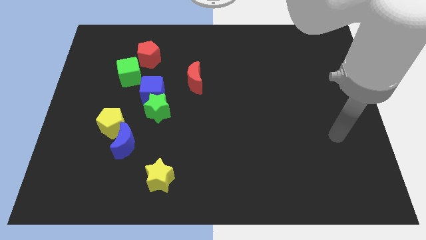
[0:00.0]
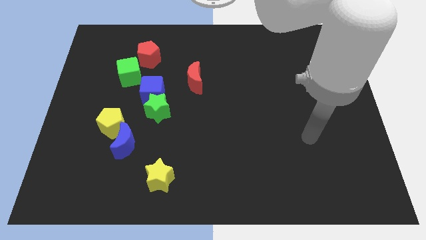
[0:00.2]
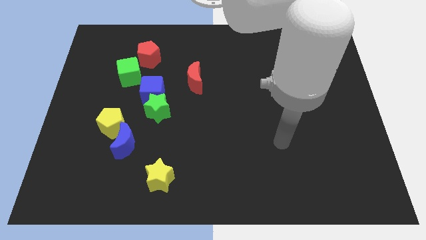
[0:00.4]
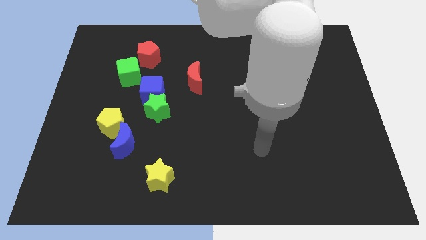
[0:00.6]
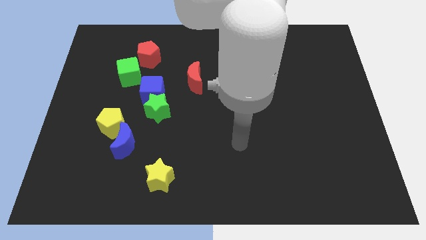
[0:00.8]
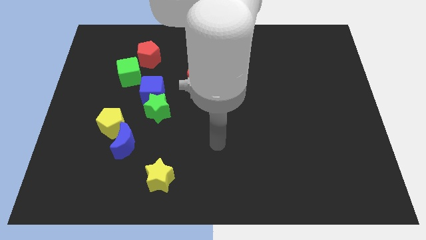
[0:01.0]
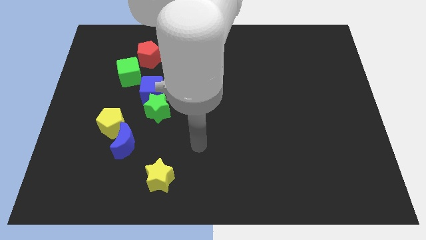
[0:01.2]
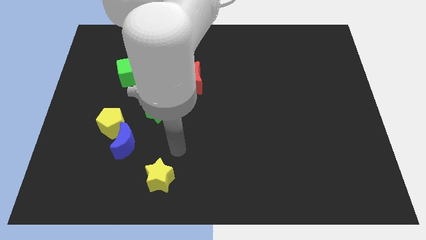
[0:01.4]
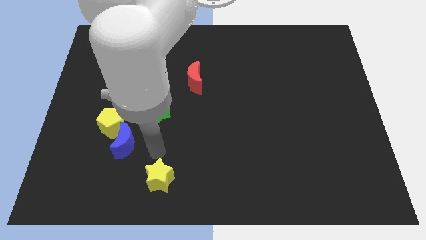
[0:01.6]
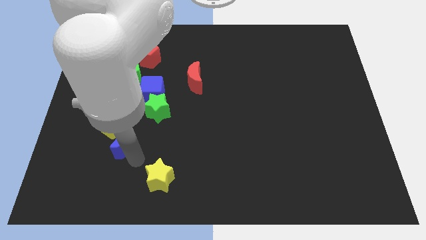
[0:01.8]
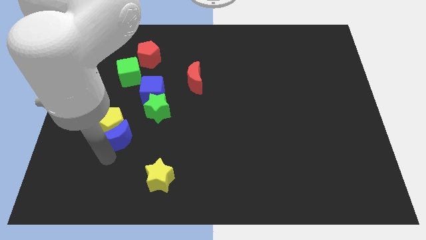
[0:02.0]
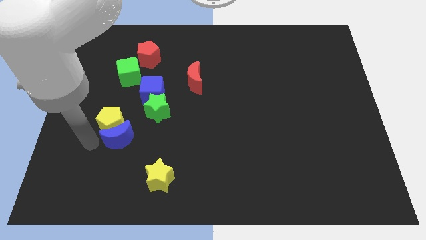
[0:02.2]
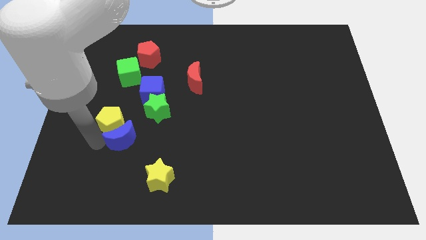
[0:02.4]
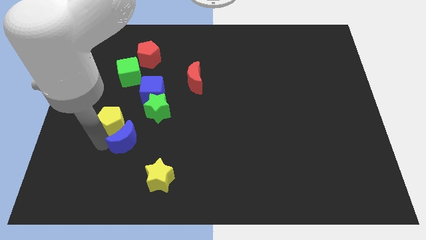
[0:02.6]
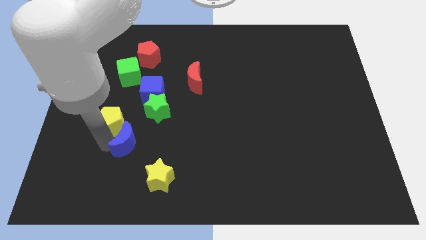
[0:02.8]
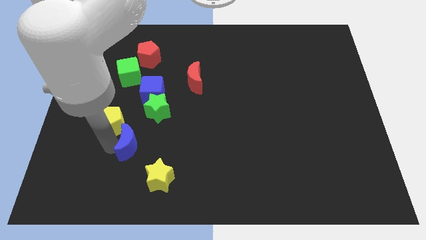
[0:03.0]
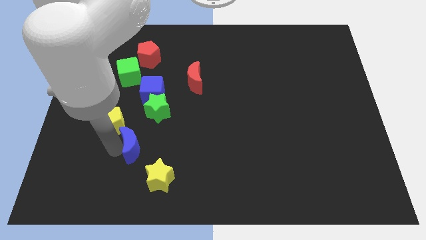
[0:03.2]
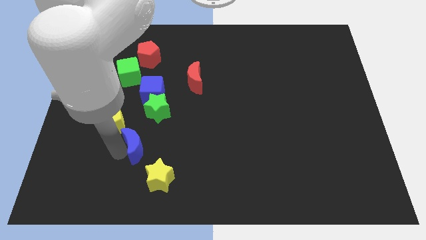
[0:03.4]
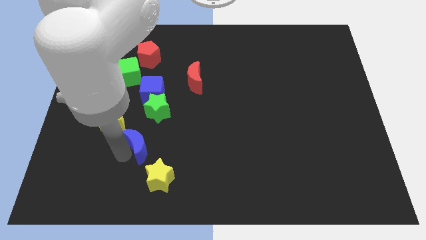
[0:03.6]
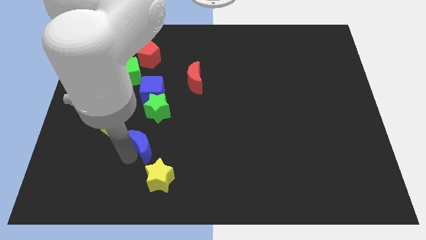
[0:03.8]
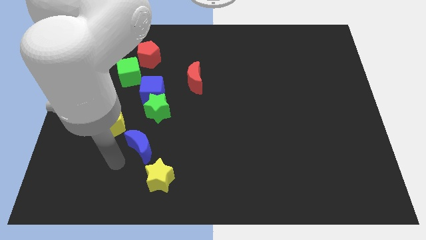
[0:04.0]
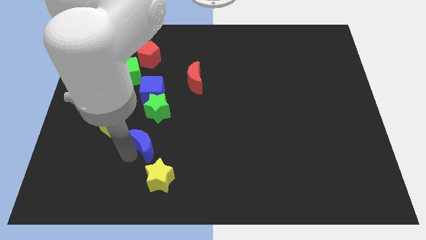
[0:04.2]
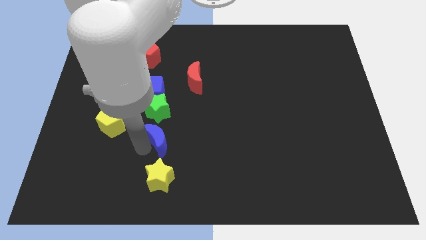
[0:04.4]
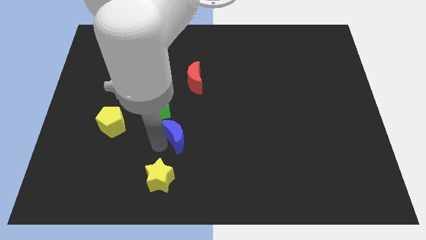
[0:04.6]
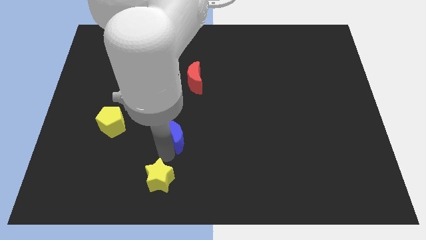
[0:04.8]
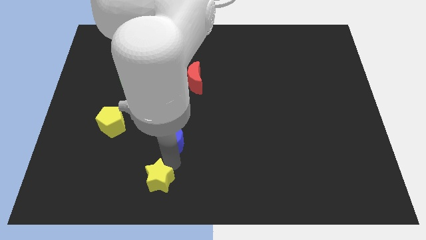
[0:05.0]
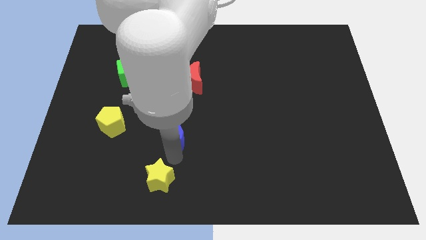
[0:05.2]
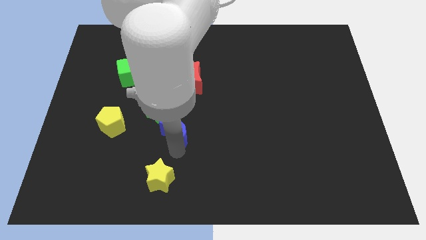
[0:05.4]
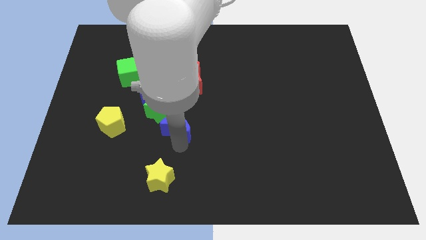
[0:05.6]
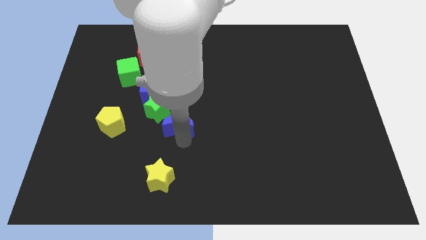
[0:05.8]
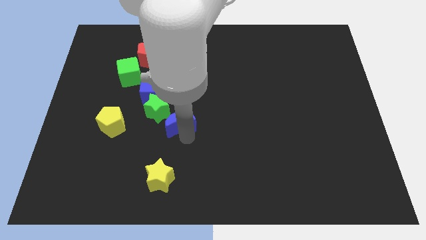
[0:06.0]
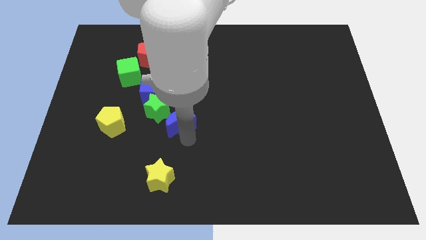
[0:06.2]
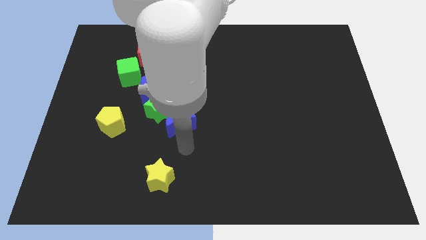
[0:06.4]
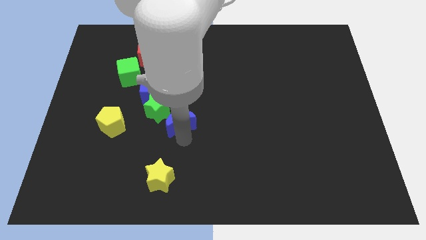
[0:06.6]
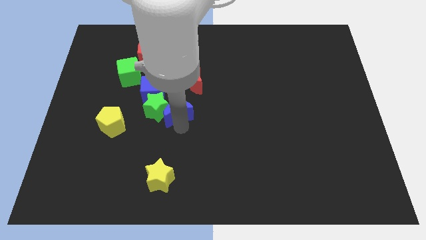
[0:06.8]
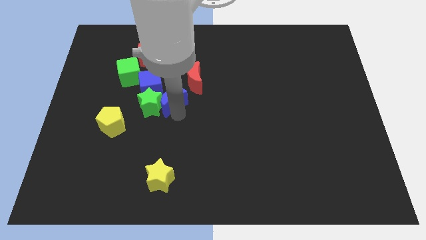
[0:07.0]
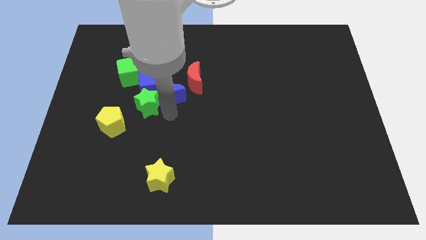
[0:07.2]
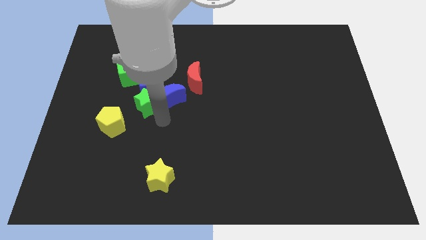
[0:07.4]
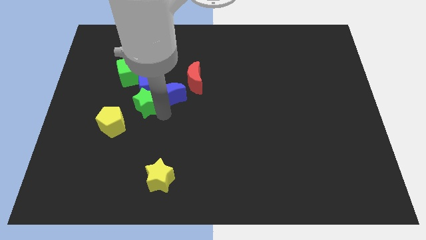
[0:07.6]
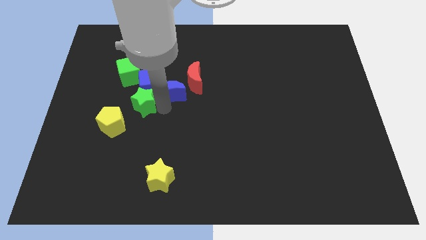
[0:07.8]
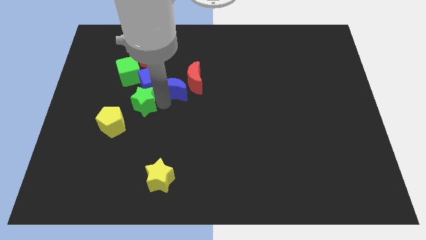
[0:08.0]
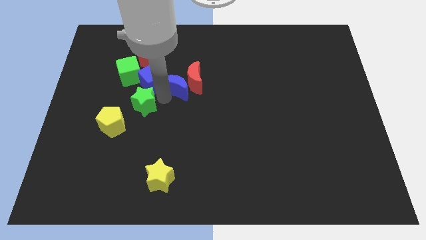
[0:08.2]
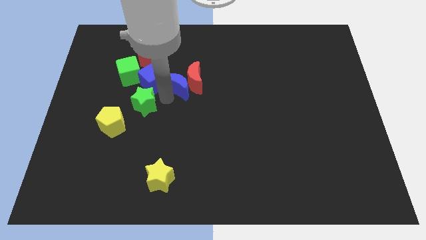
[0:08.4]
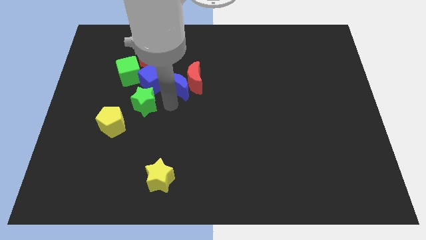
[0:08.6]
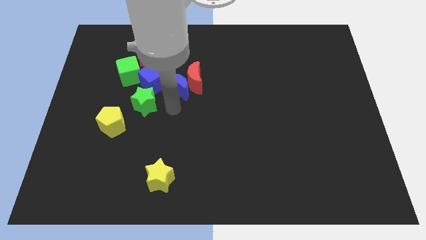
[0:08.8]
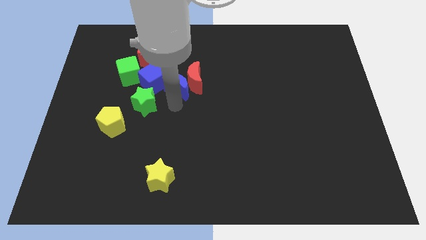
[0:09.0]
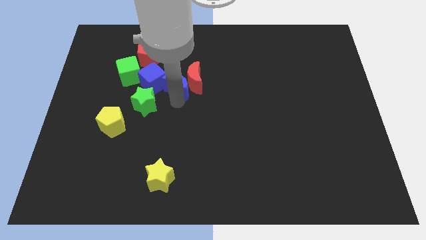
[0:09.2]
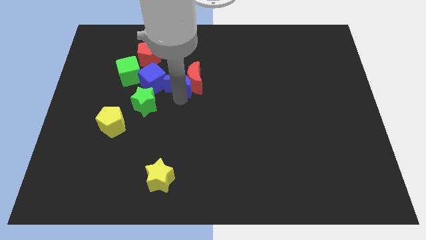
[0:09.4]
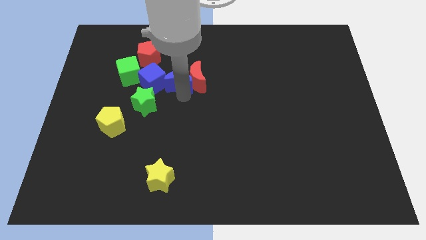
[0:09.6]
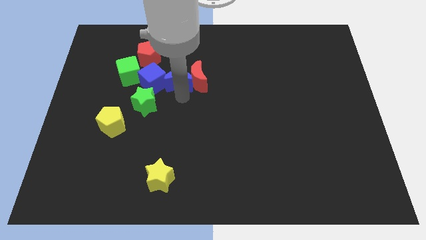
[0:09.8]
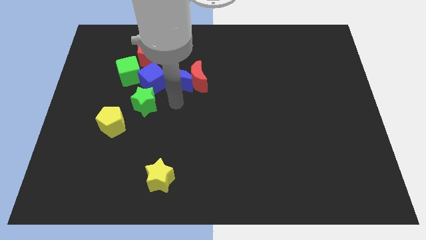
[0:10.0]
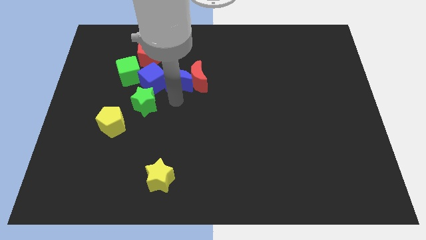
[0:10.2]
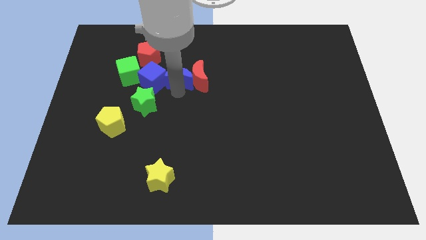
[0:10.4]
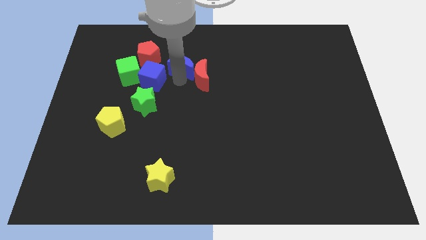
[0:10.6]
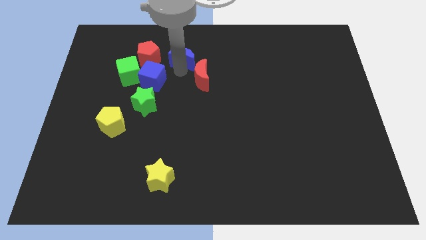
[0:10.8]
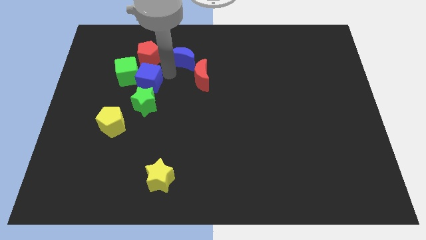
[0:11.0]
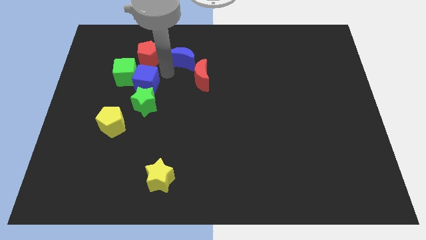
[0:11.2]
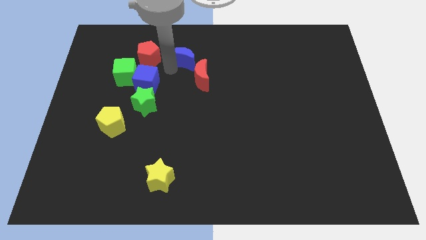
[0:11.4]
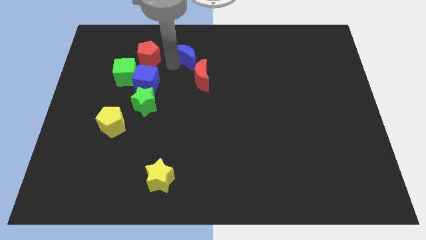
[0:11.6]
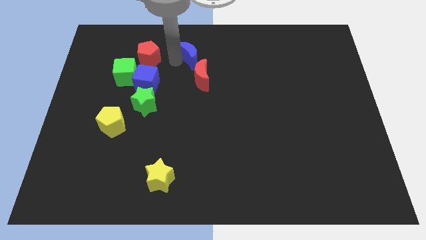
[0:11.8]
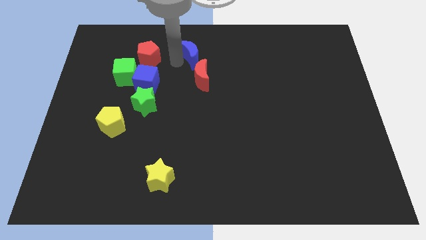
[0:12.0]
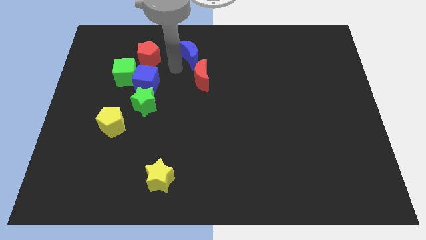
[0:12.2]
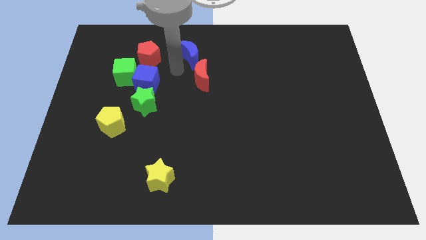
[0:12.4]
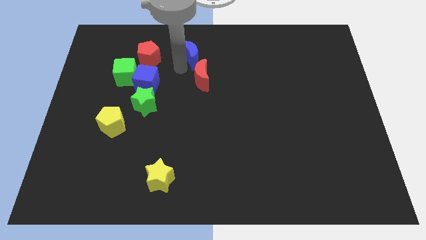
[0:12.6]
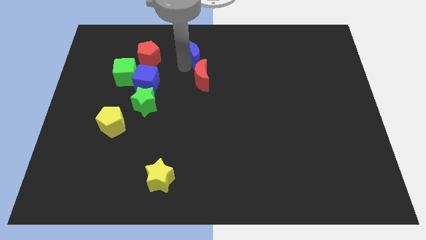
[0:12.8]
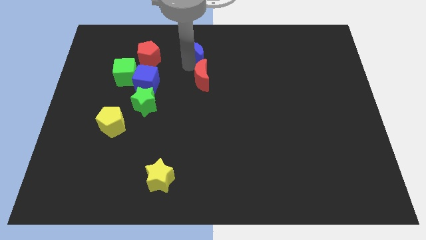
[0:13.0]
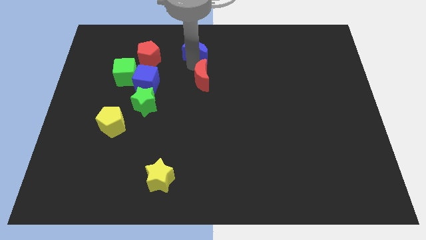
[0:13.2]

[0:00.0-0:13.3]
move the blue moon to the top side
